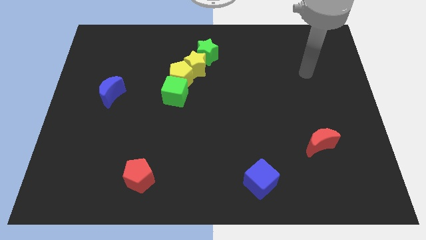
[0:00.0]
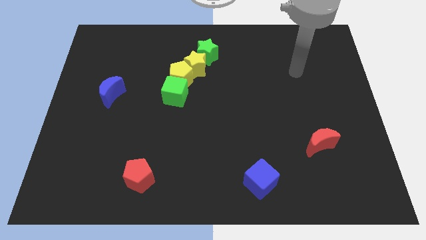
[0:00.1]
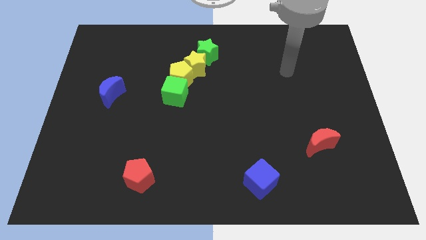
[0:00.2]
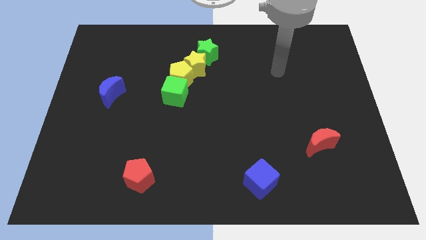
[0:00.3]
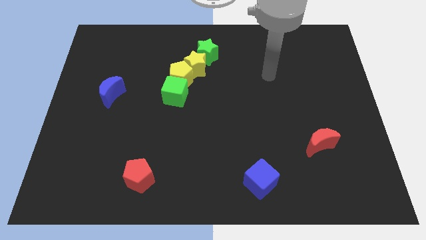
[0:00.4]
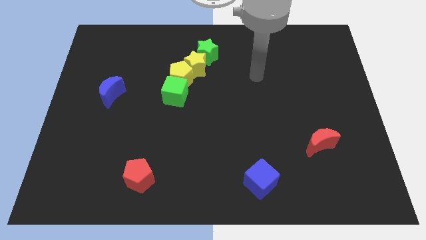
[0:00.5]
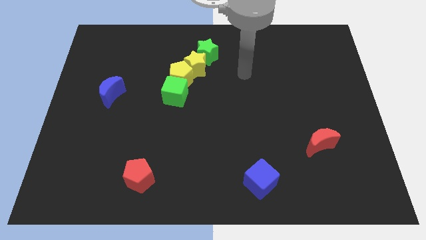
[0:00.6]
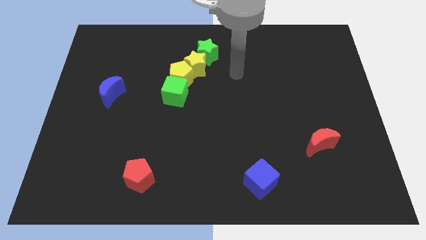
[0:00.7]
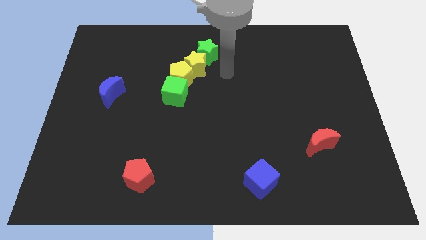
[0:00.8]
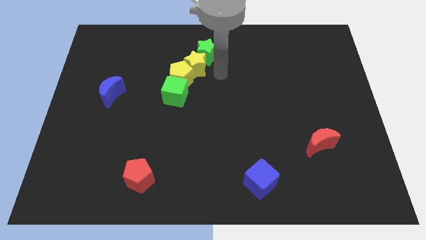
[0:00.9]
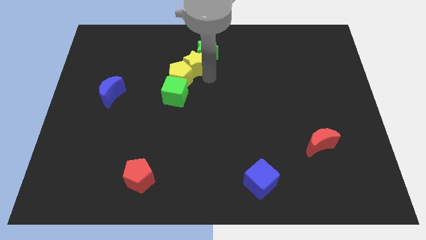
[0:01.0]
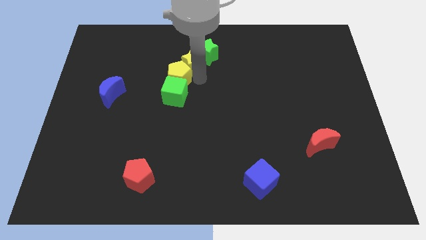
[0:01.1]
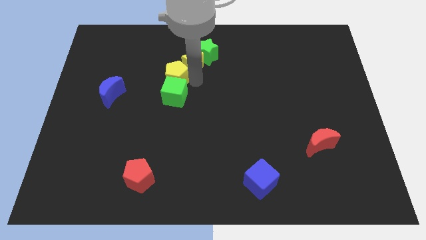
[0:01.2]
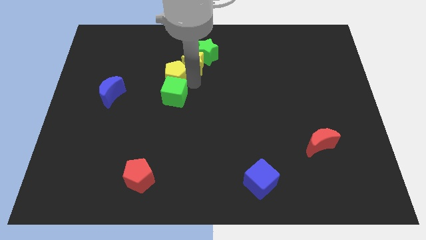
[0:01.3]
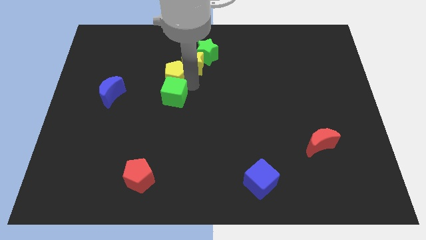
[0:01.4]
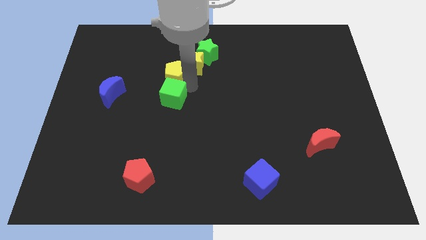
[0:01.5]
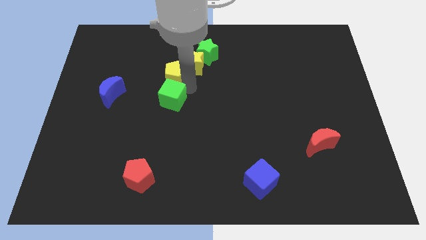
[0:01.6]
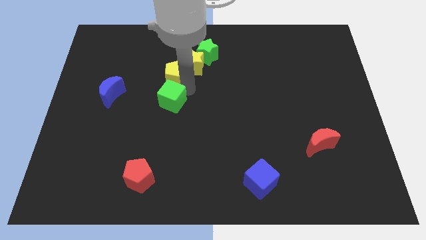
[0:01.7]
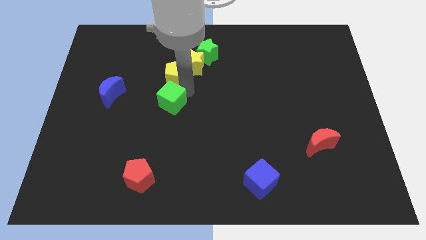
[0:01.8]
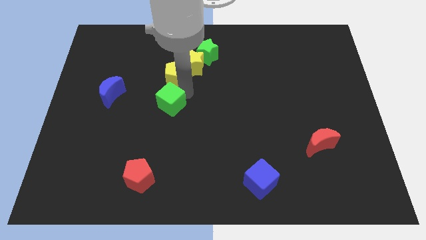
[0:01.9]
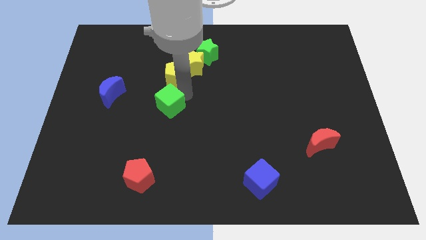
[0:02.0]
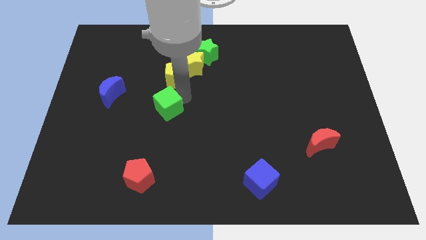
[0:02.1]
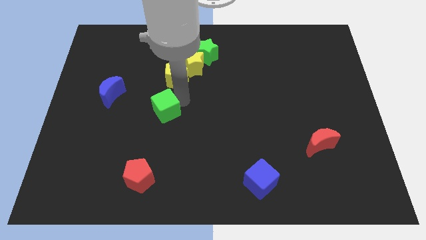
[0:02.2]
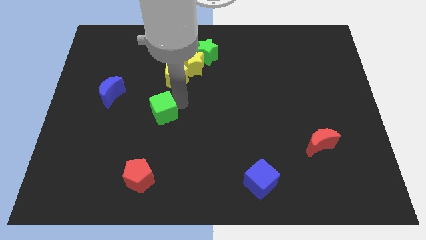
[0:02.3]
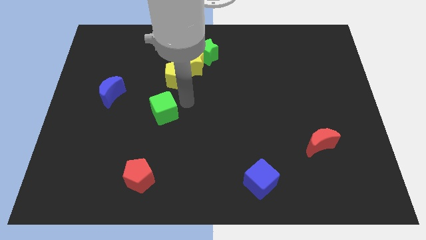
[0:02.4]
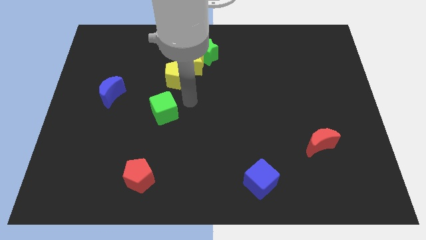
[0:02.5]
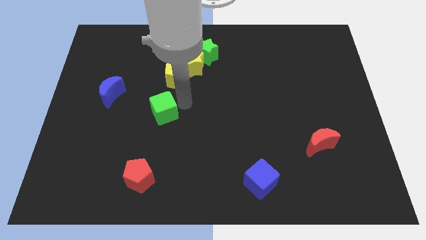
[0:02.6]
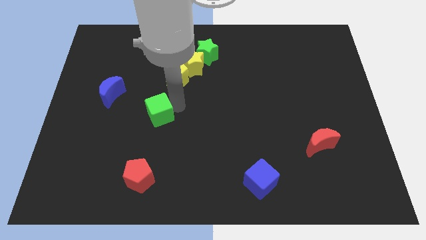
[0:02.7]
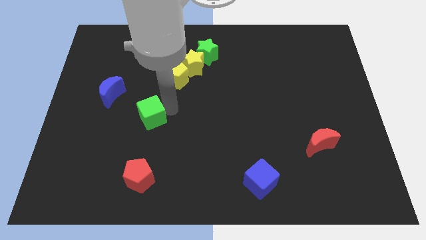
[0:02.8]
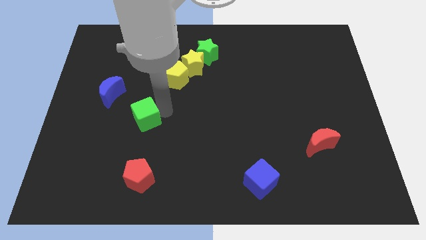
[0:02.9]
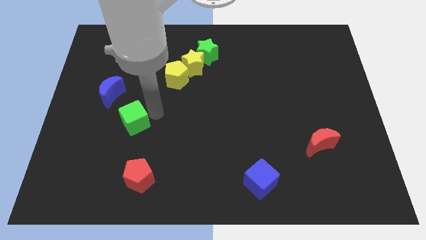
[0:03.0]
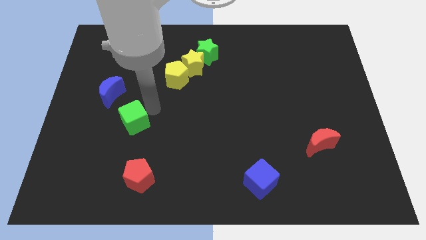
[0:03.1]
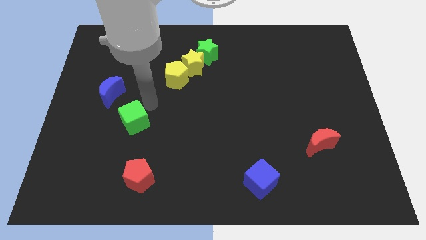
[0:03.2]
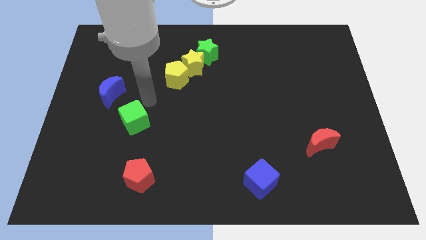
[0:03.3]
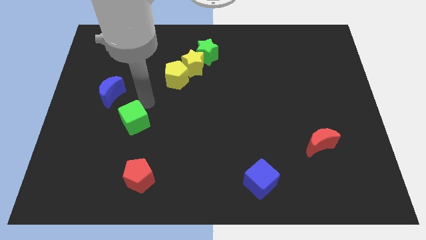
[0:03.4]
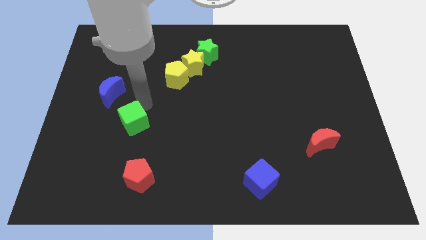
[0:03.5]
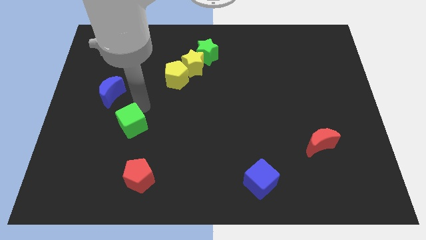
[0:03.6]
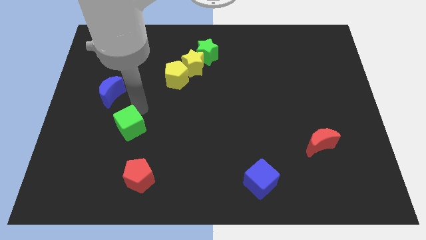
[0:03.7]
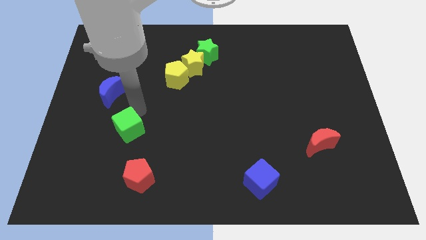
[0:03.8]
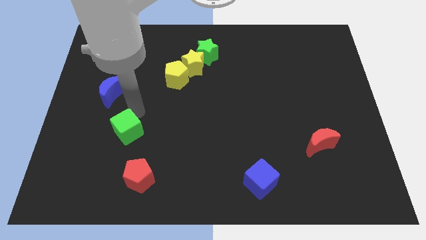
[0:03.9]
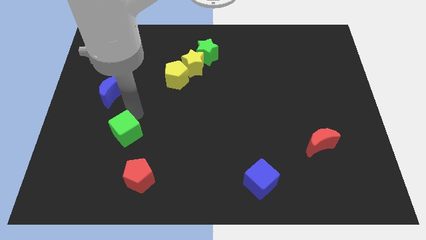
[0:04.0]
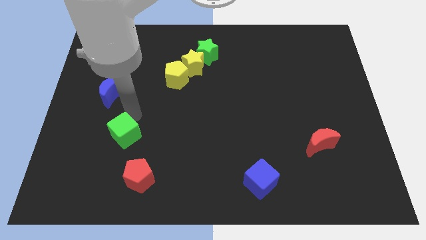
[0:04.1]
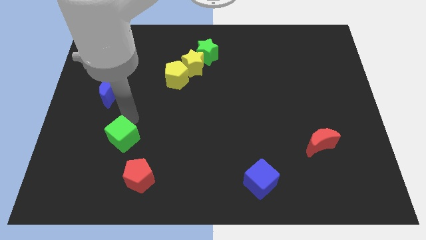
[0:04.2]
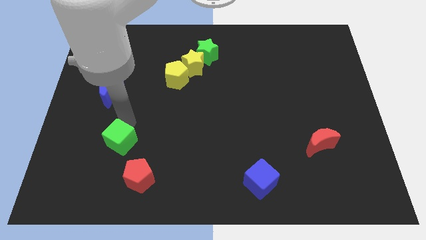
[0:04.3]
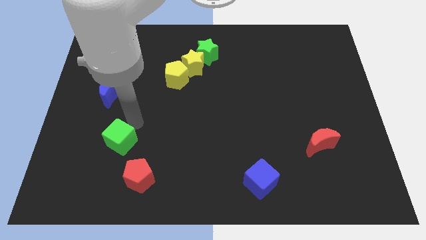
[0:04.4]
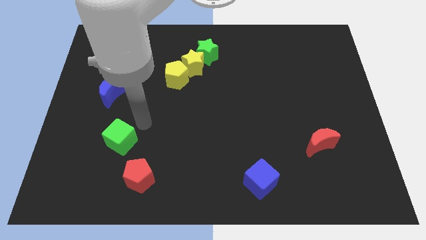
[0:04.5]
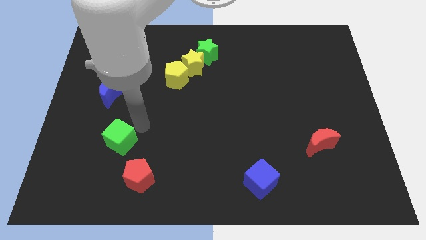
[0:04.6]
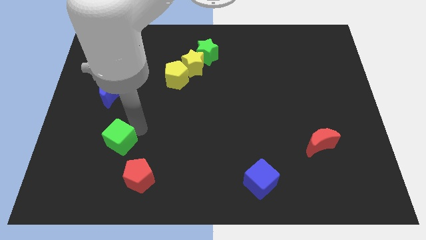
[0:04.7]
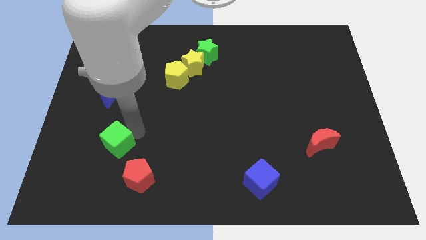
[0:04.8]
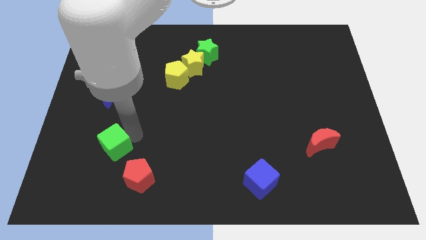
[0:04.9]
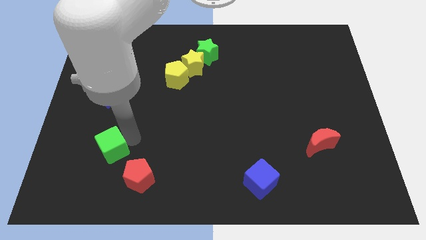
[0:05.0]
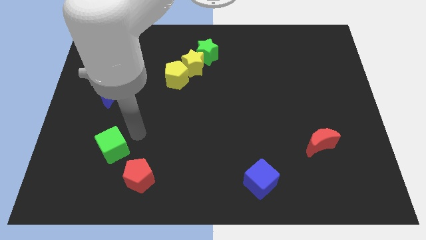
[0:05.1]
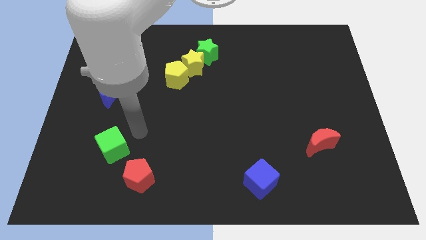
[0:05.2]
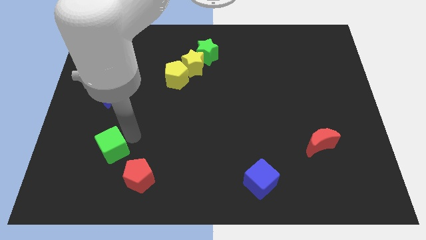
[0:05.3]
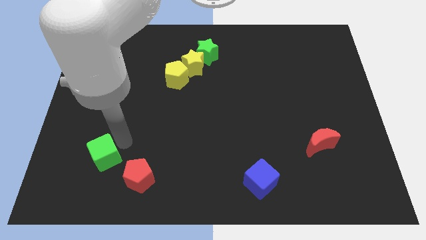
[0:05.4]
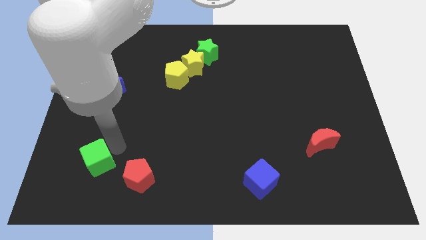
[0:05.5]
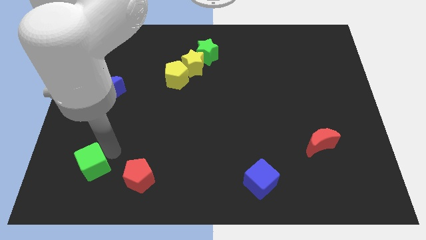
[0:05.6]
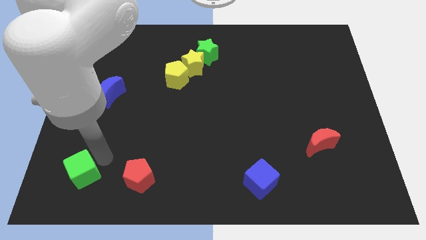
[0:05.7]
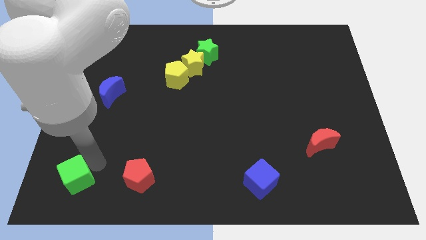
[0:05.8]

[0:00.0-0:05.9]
slide the green cube to the bottom left of the board
